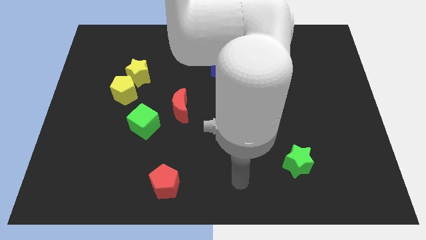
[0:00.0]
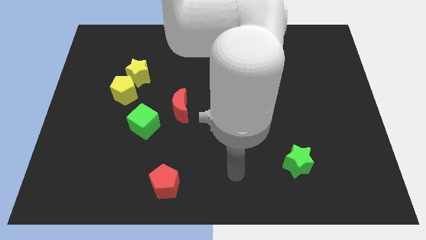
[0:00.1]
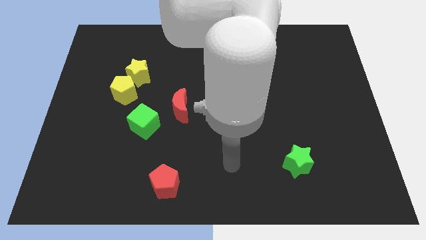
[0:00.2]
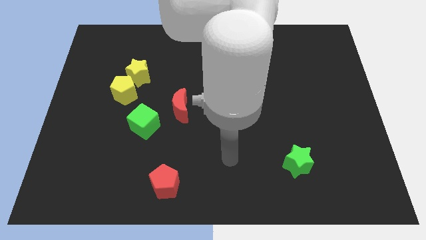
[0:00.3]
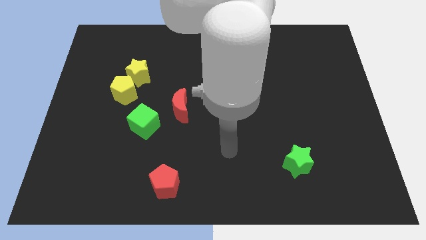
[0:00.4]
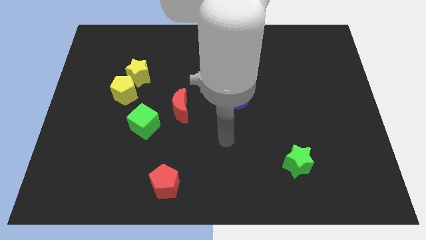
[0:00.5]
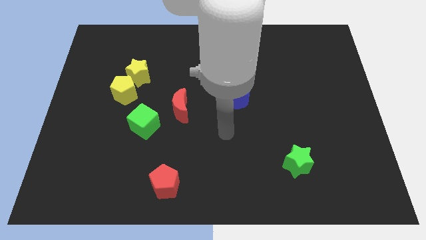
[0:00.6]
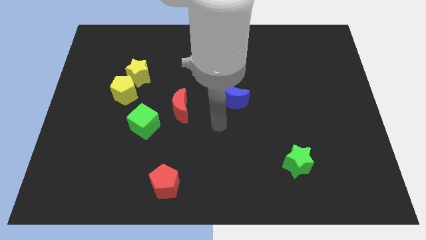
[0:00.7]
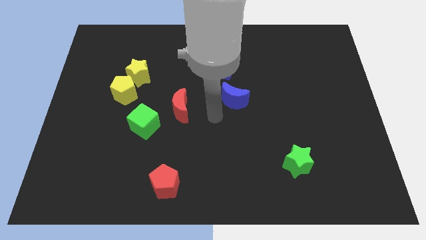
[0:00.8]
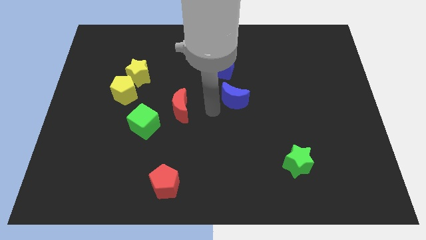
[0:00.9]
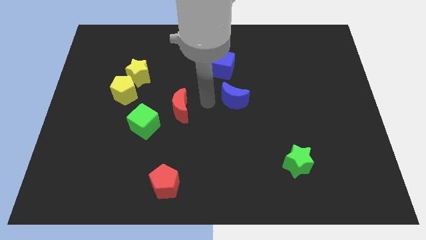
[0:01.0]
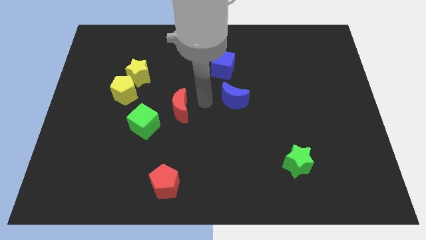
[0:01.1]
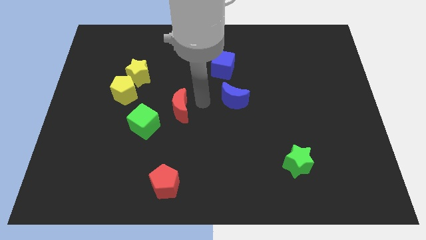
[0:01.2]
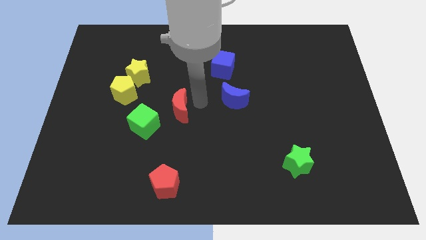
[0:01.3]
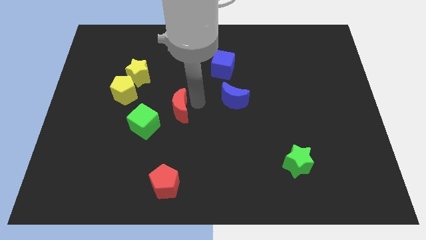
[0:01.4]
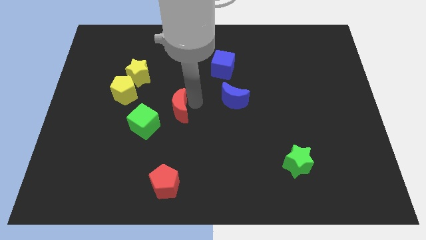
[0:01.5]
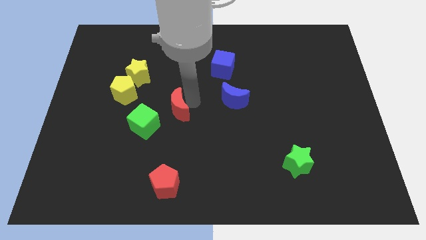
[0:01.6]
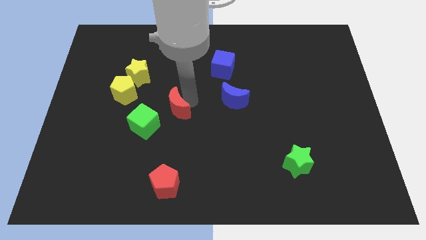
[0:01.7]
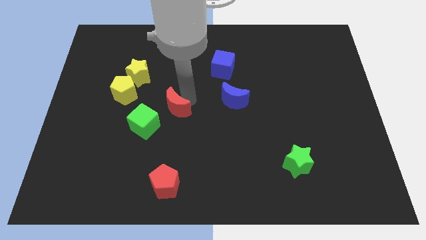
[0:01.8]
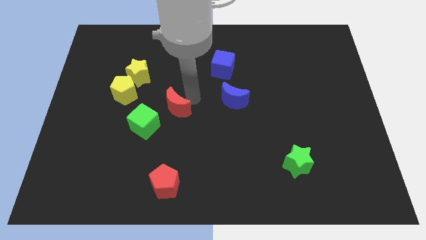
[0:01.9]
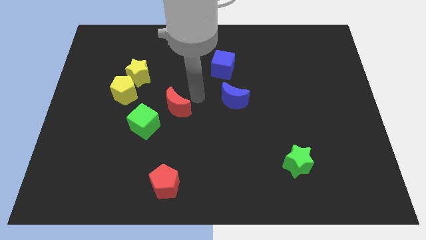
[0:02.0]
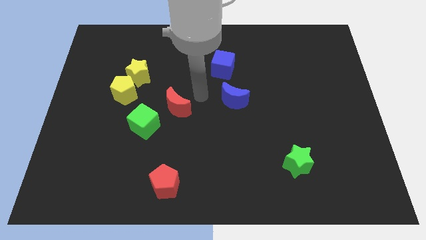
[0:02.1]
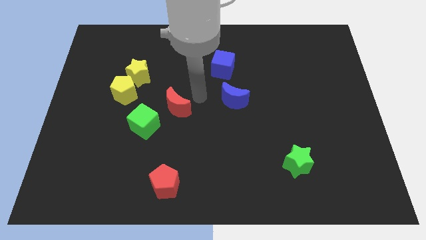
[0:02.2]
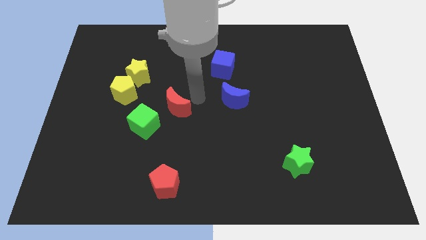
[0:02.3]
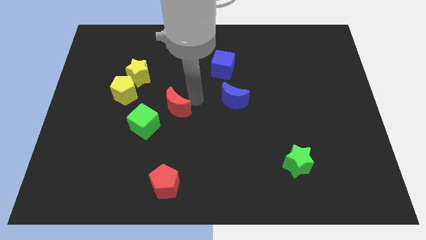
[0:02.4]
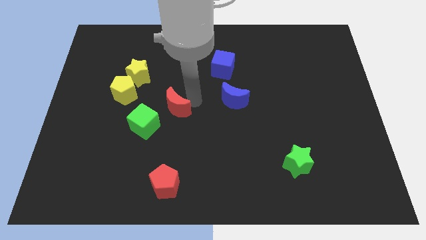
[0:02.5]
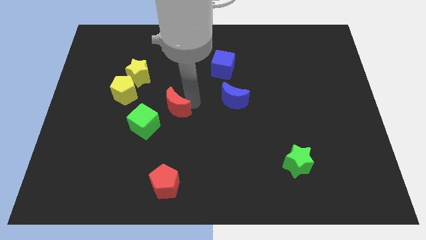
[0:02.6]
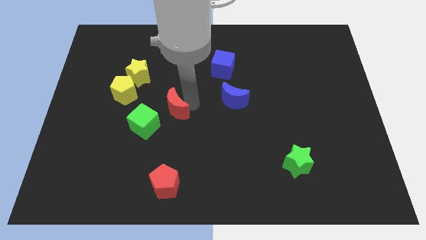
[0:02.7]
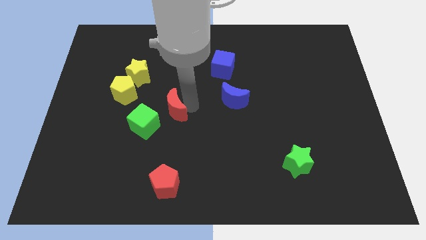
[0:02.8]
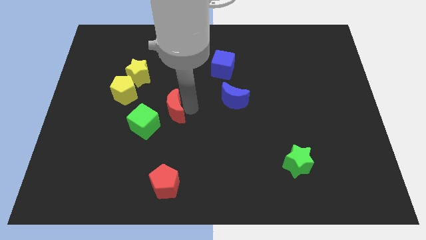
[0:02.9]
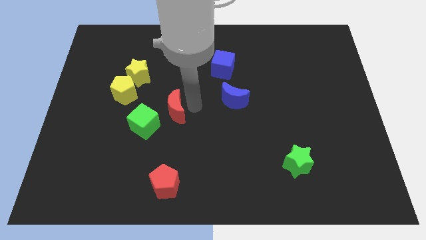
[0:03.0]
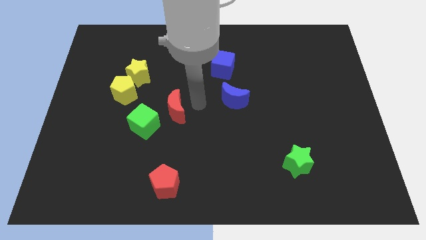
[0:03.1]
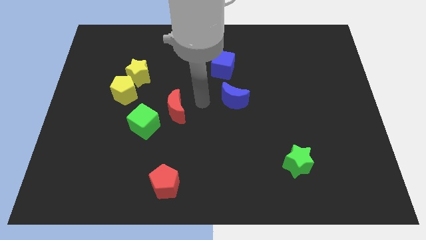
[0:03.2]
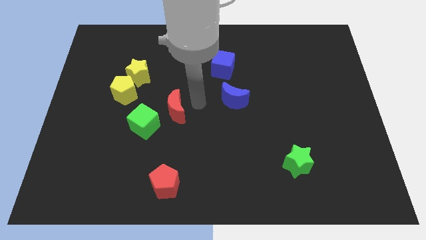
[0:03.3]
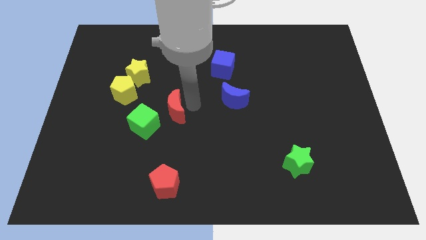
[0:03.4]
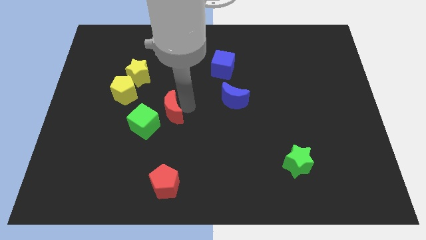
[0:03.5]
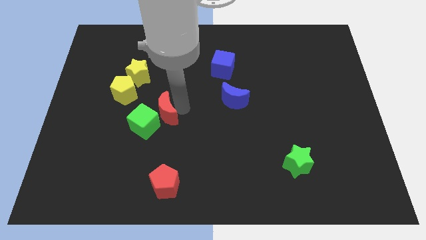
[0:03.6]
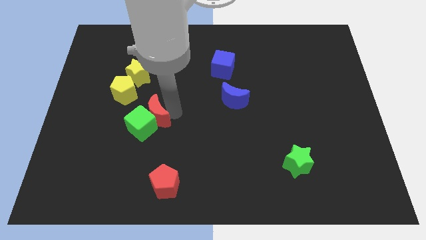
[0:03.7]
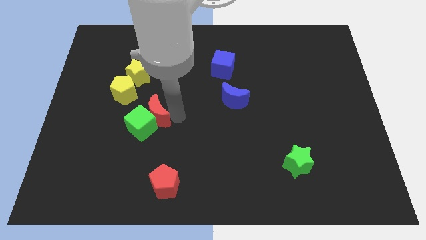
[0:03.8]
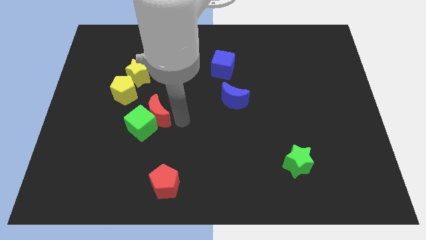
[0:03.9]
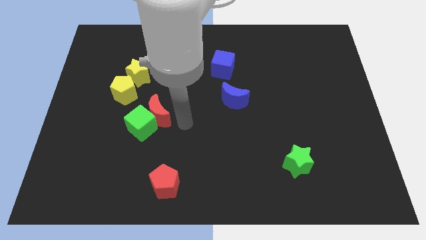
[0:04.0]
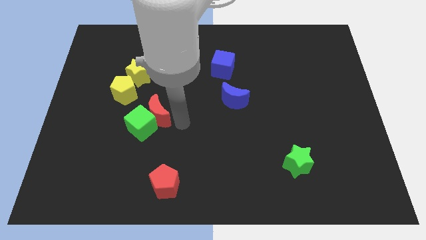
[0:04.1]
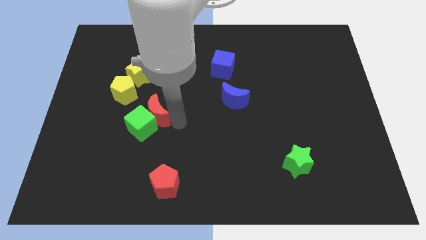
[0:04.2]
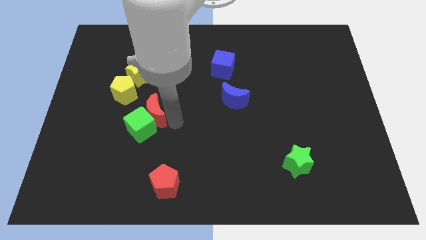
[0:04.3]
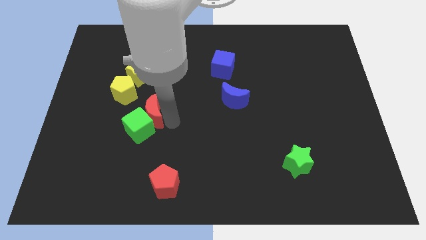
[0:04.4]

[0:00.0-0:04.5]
push the red moon below the yellow star

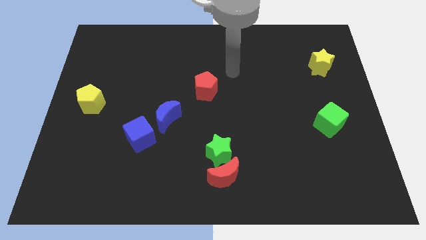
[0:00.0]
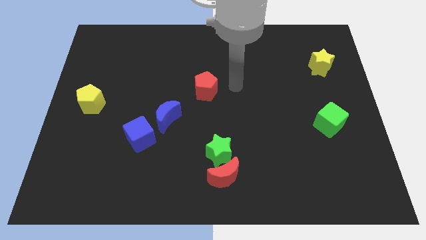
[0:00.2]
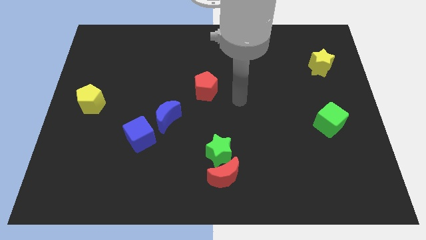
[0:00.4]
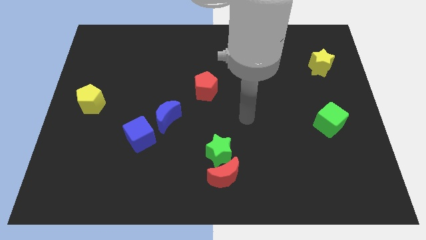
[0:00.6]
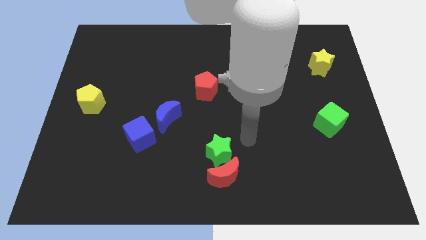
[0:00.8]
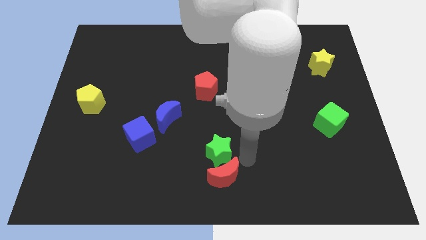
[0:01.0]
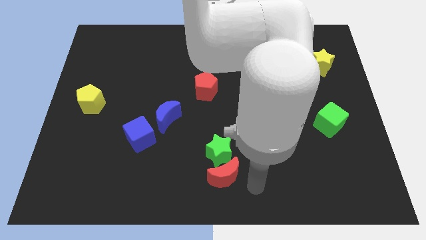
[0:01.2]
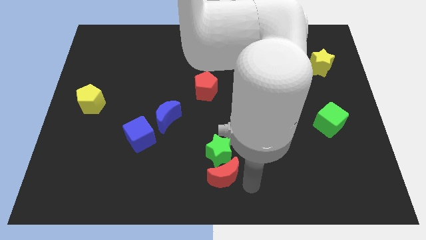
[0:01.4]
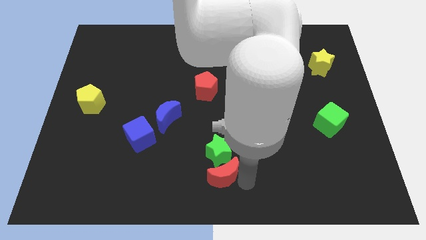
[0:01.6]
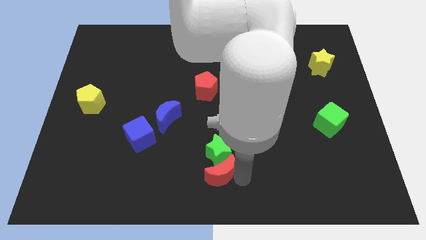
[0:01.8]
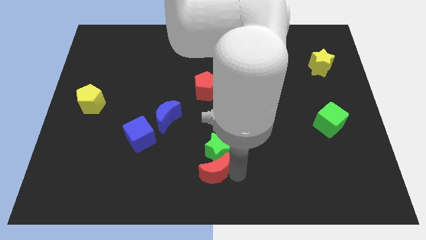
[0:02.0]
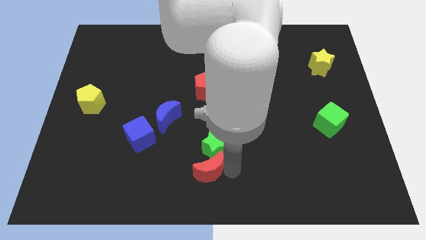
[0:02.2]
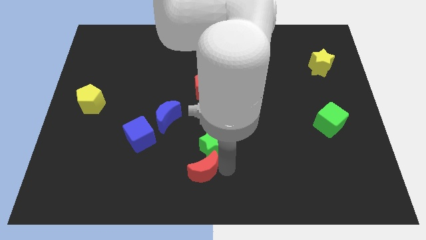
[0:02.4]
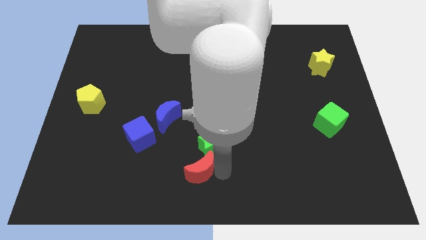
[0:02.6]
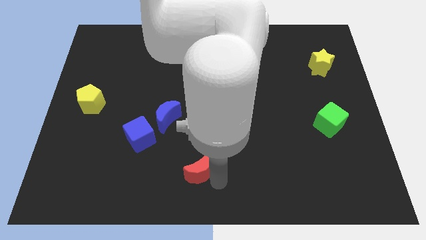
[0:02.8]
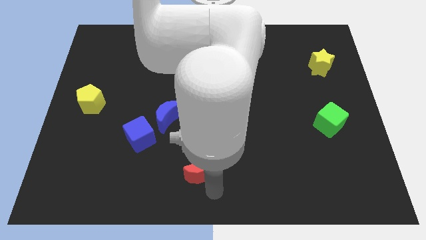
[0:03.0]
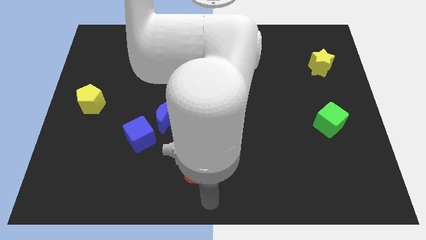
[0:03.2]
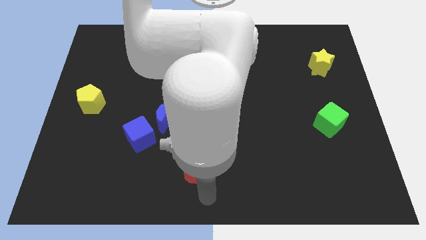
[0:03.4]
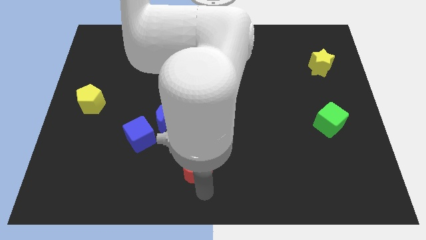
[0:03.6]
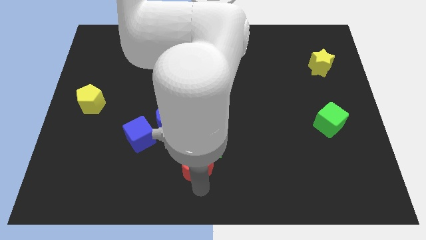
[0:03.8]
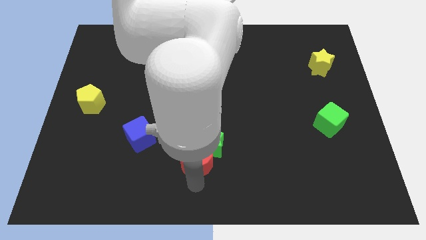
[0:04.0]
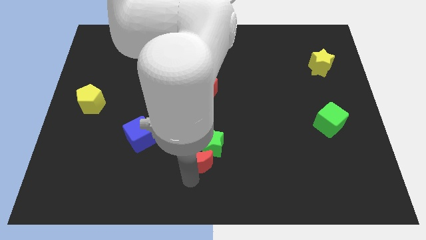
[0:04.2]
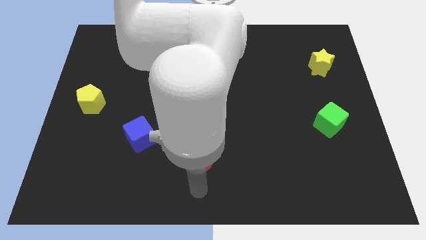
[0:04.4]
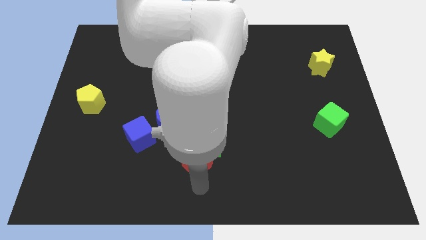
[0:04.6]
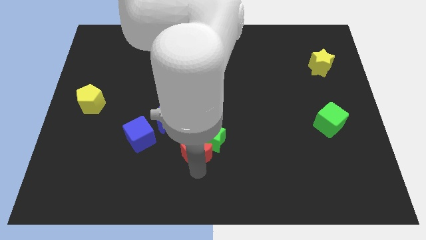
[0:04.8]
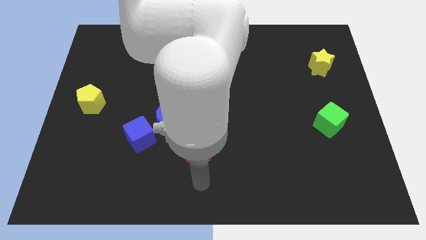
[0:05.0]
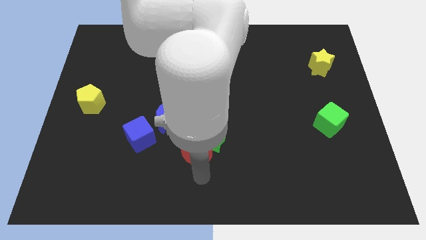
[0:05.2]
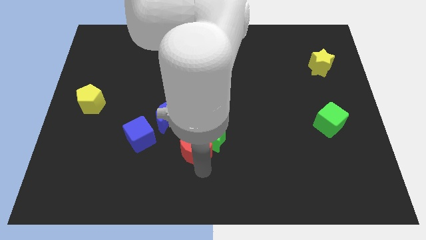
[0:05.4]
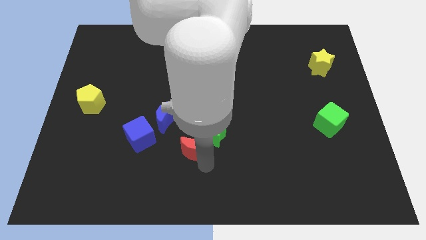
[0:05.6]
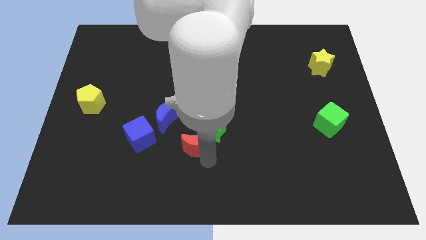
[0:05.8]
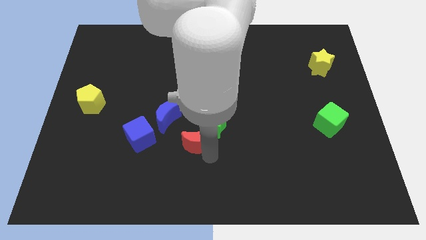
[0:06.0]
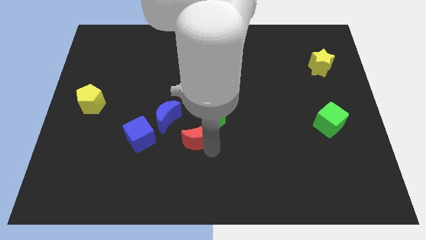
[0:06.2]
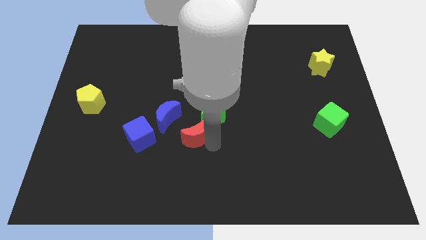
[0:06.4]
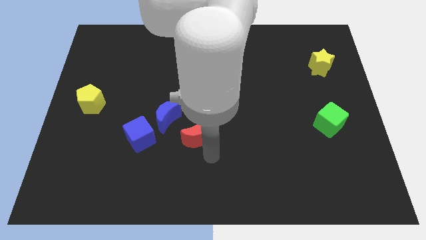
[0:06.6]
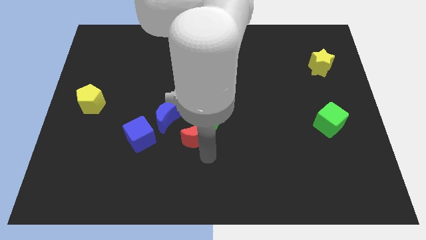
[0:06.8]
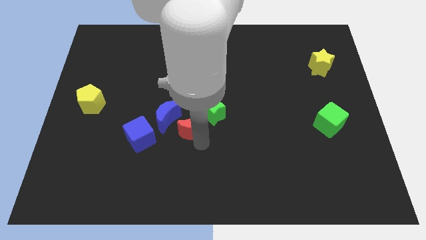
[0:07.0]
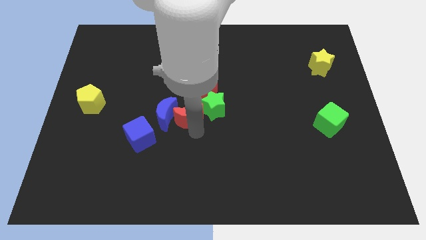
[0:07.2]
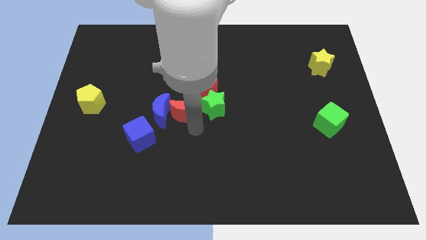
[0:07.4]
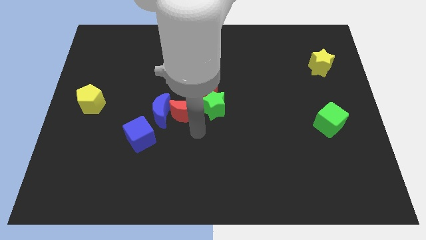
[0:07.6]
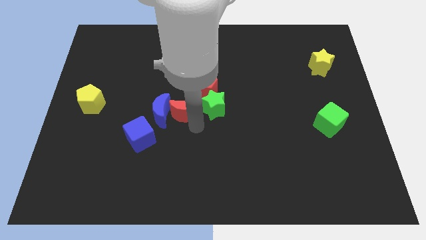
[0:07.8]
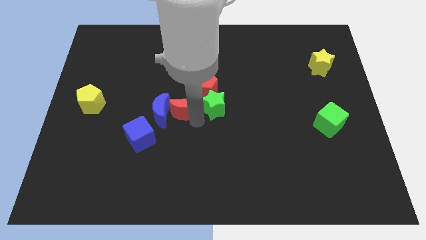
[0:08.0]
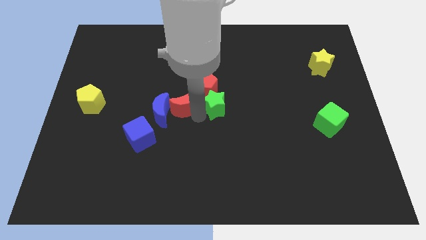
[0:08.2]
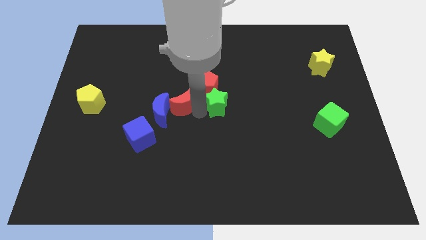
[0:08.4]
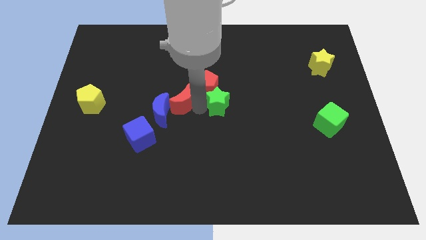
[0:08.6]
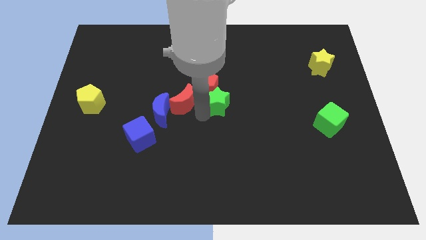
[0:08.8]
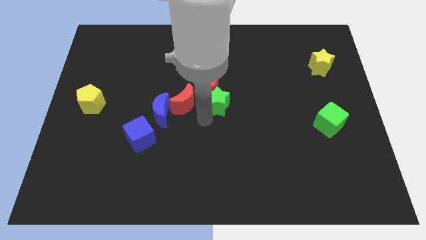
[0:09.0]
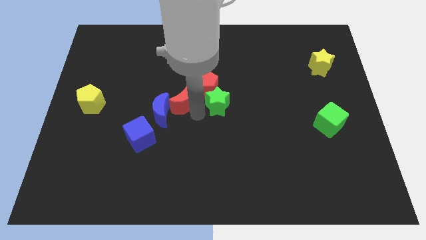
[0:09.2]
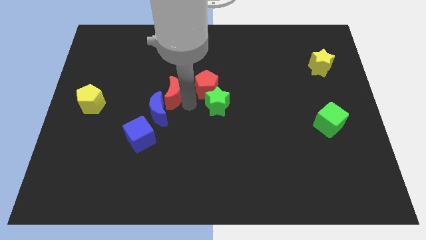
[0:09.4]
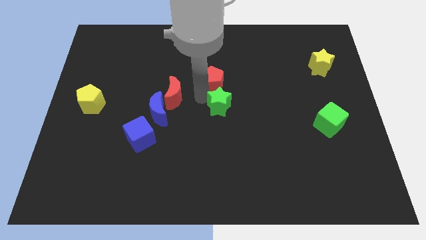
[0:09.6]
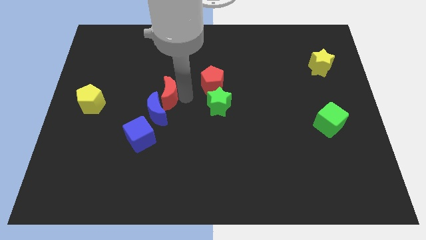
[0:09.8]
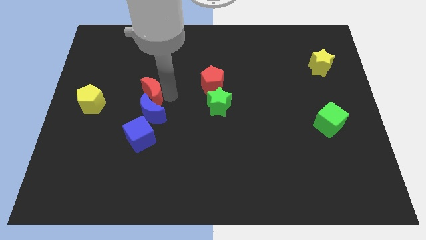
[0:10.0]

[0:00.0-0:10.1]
slide the red moon diagonally up and to the left of the blue moon
